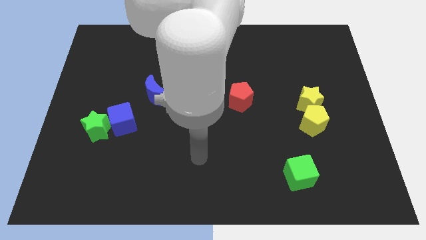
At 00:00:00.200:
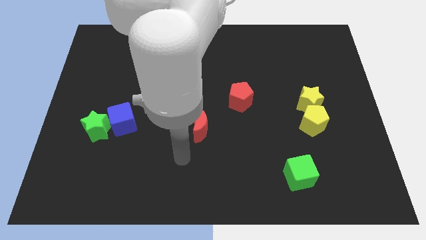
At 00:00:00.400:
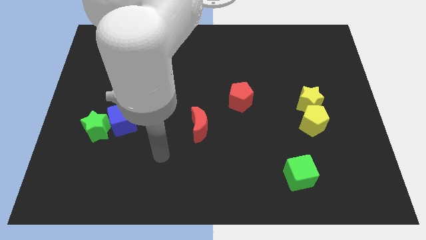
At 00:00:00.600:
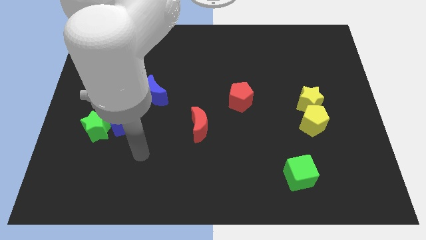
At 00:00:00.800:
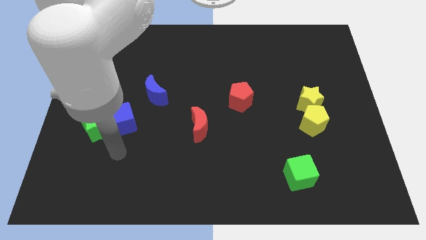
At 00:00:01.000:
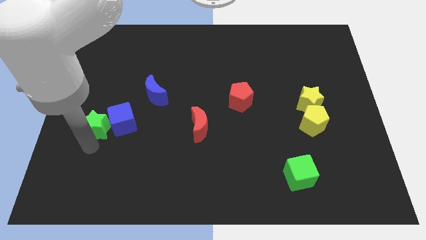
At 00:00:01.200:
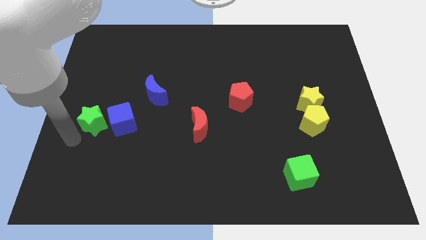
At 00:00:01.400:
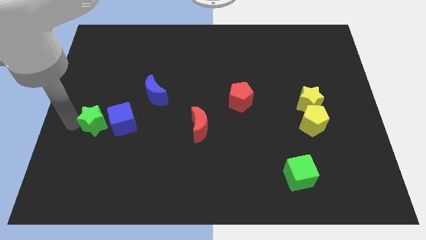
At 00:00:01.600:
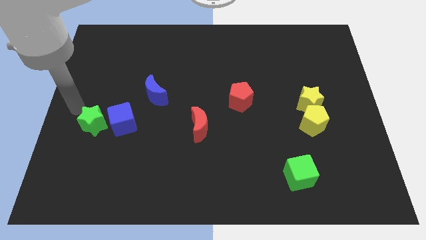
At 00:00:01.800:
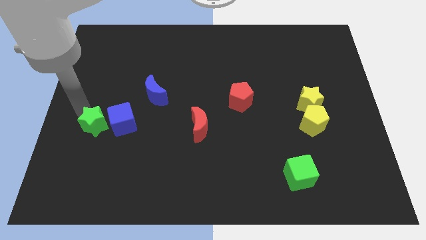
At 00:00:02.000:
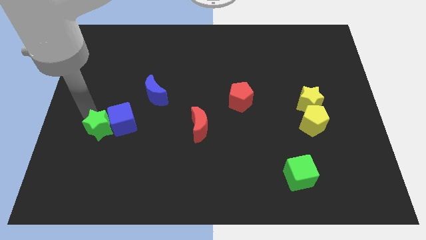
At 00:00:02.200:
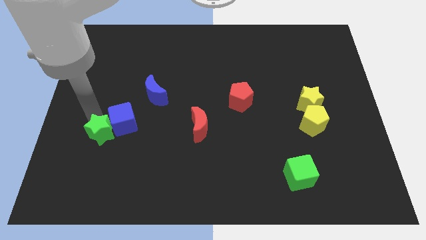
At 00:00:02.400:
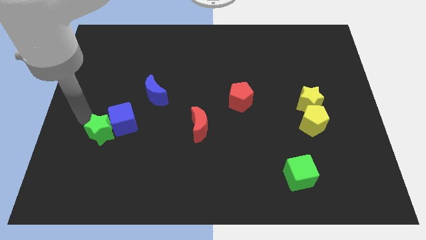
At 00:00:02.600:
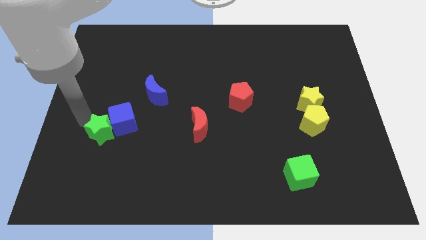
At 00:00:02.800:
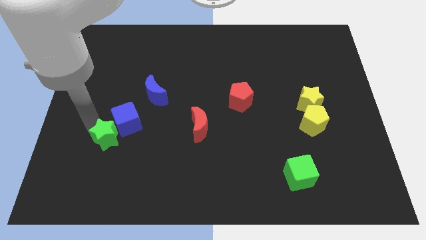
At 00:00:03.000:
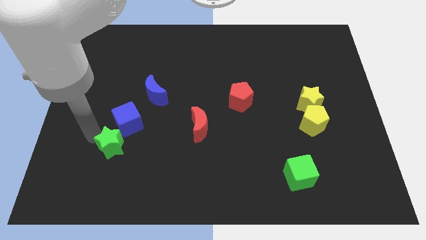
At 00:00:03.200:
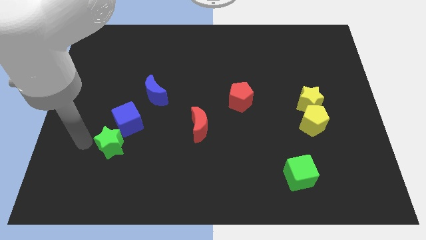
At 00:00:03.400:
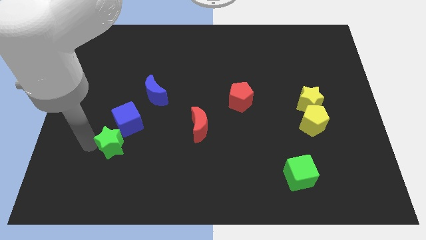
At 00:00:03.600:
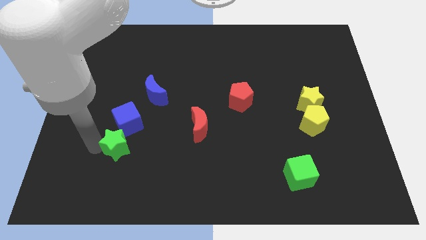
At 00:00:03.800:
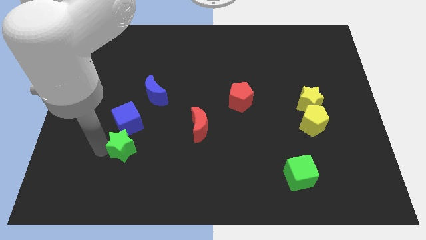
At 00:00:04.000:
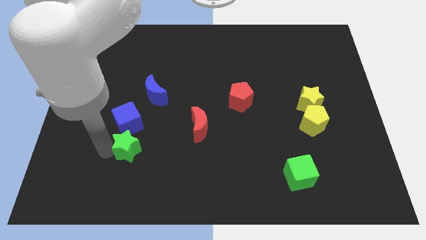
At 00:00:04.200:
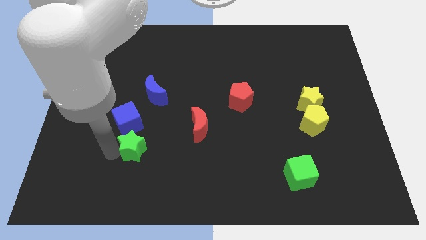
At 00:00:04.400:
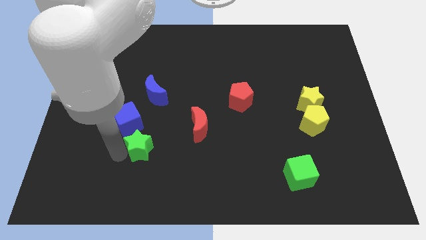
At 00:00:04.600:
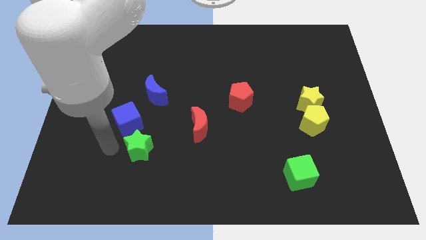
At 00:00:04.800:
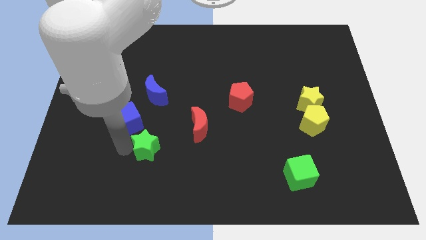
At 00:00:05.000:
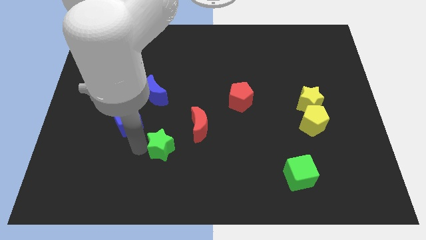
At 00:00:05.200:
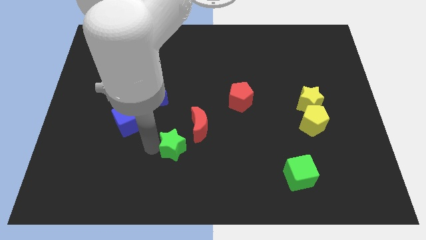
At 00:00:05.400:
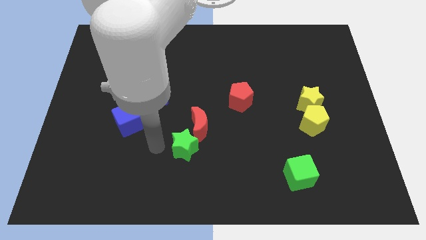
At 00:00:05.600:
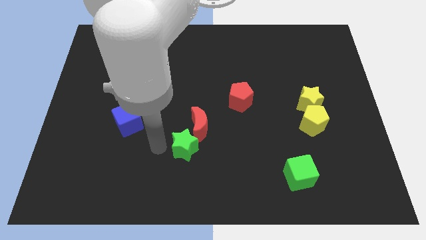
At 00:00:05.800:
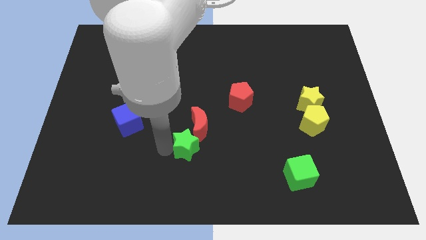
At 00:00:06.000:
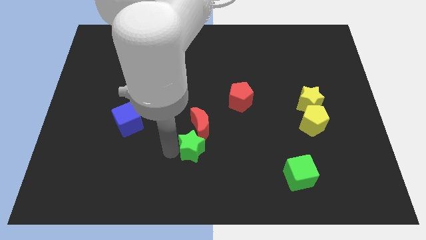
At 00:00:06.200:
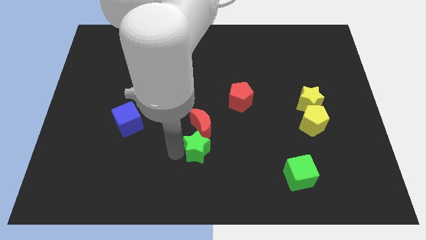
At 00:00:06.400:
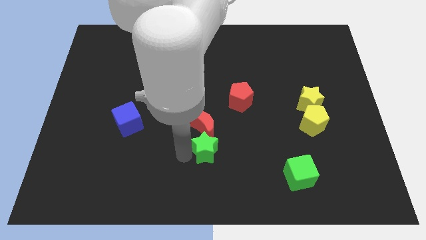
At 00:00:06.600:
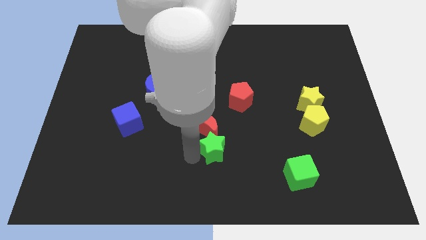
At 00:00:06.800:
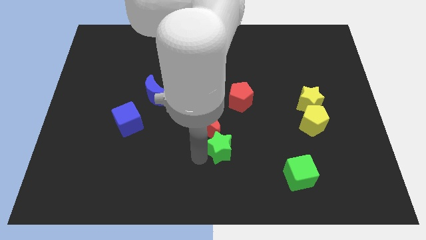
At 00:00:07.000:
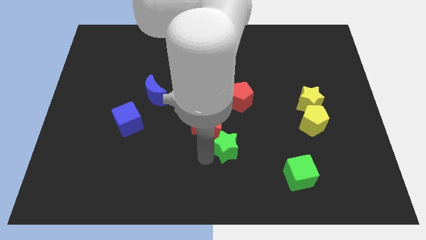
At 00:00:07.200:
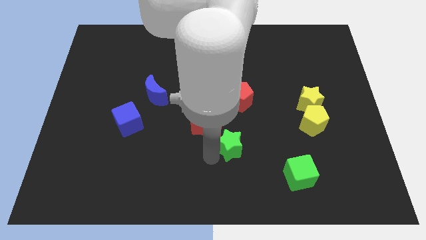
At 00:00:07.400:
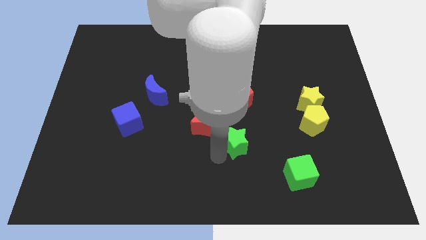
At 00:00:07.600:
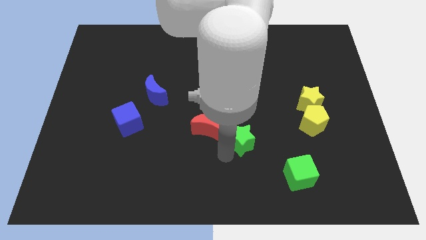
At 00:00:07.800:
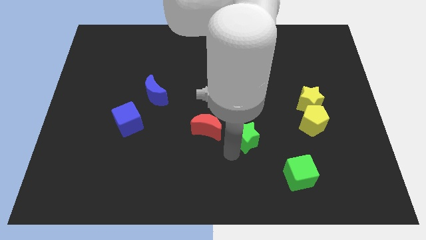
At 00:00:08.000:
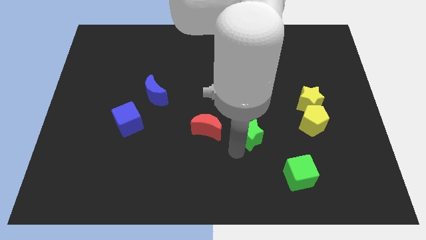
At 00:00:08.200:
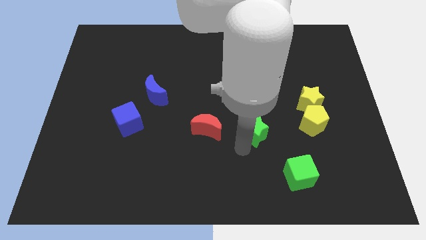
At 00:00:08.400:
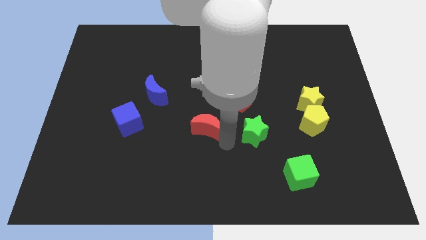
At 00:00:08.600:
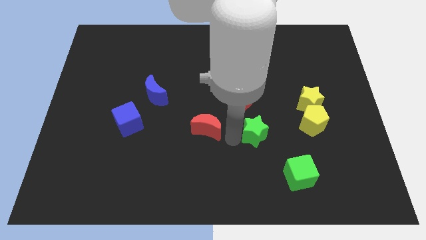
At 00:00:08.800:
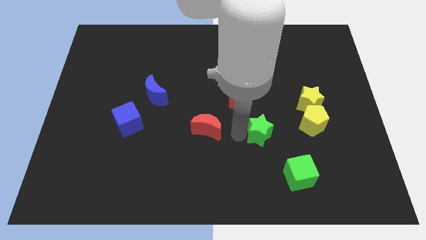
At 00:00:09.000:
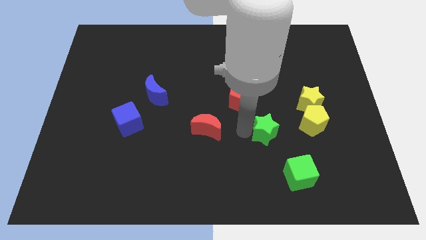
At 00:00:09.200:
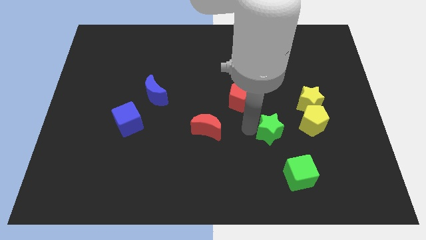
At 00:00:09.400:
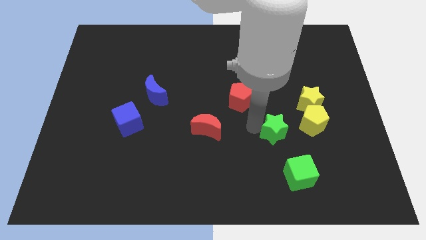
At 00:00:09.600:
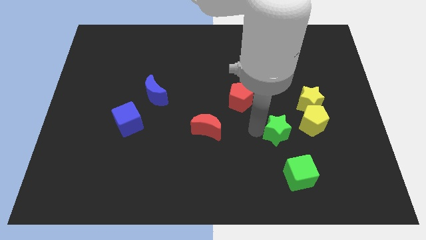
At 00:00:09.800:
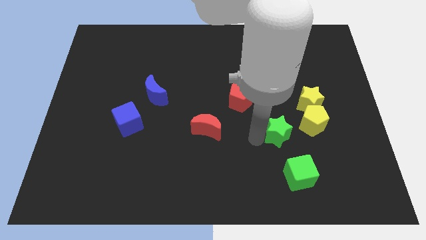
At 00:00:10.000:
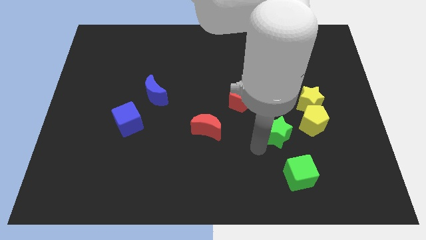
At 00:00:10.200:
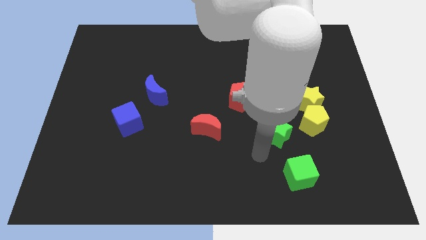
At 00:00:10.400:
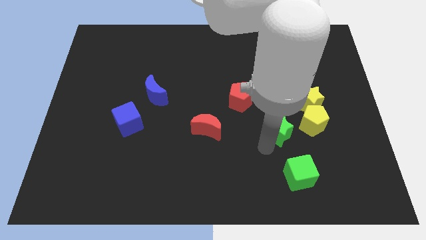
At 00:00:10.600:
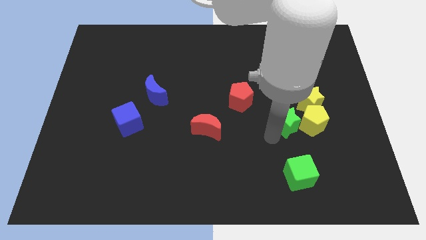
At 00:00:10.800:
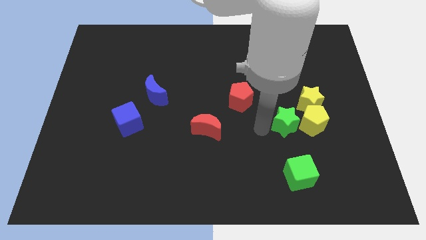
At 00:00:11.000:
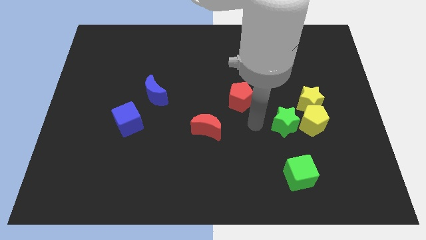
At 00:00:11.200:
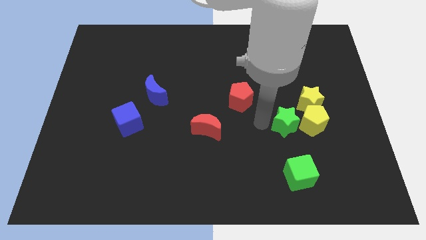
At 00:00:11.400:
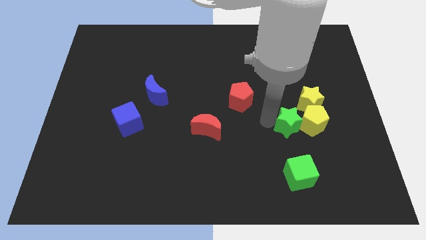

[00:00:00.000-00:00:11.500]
put the green star close to the yellow pentagon

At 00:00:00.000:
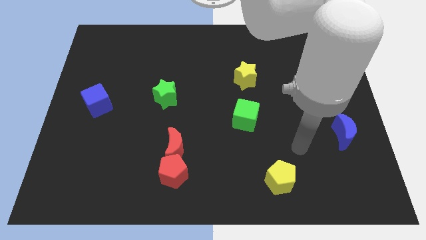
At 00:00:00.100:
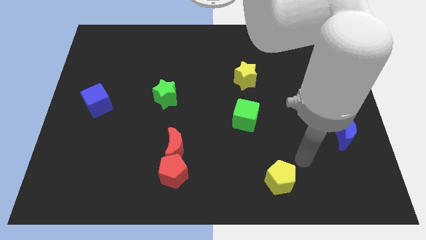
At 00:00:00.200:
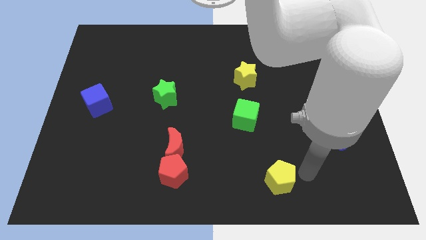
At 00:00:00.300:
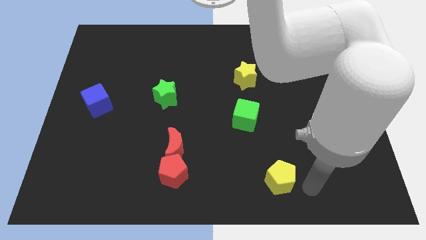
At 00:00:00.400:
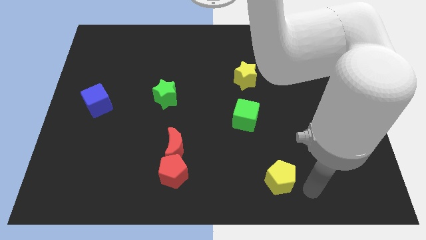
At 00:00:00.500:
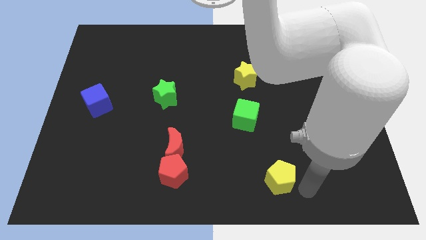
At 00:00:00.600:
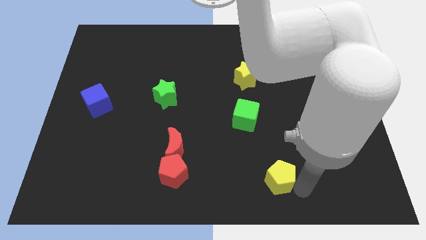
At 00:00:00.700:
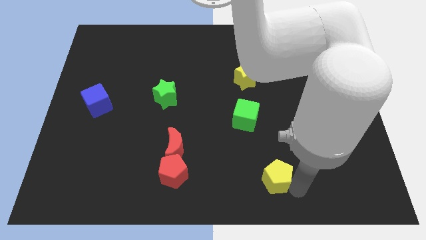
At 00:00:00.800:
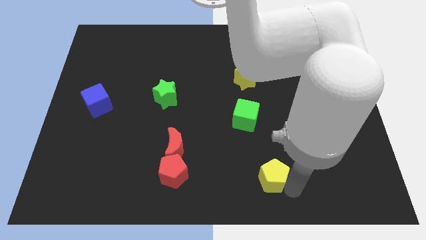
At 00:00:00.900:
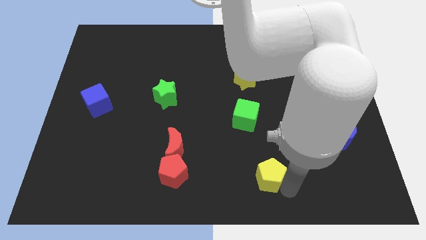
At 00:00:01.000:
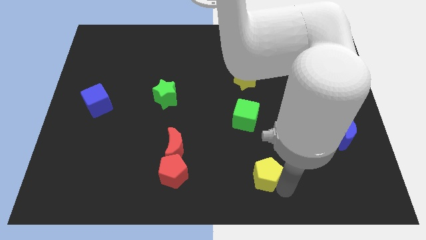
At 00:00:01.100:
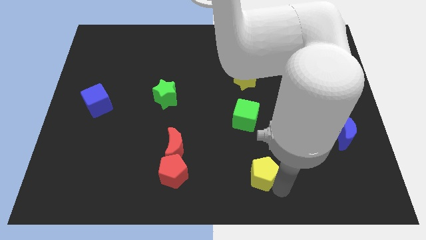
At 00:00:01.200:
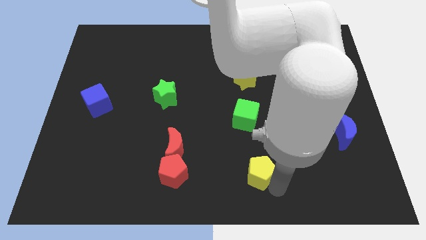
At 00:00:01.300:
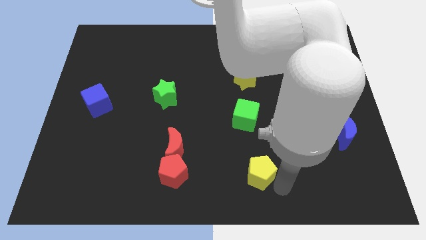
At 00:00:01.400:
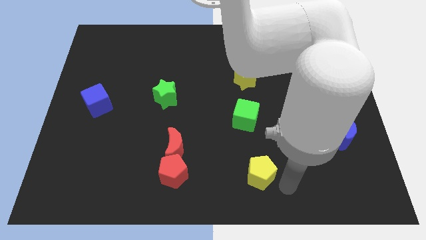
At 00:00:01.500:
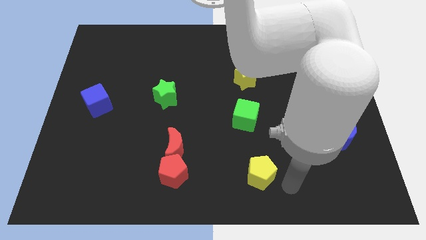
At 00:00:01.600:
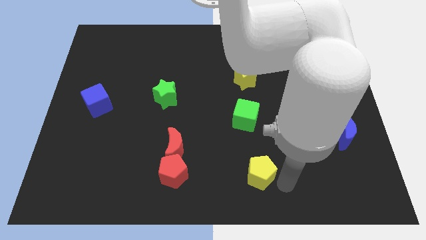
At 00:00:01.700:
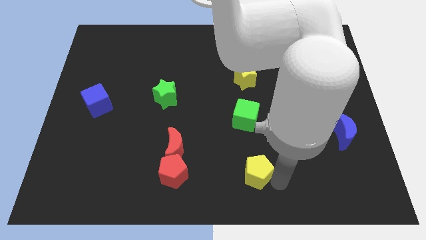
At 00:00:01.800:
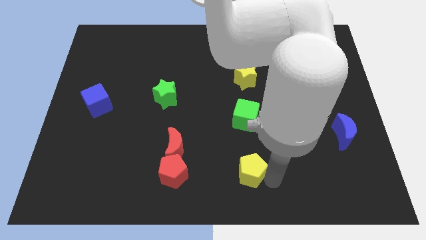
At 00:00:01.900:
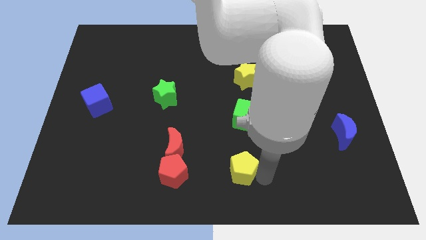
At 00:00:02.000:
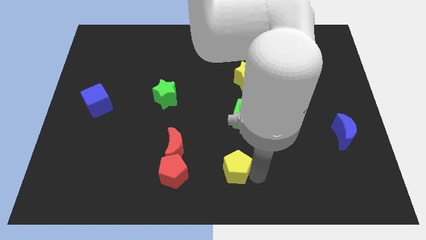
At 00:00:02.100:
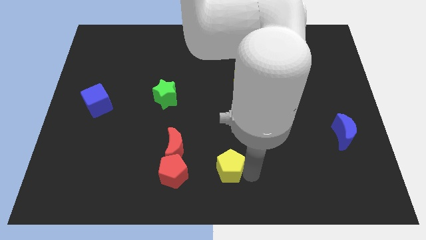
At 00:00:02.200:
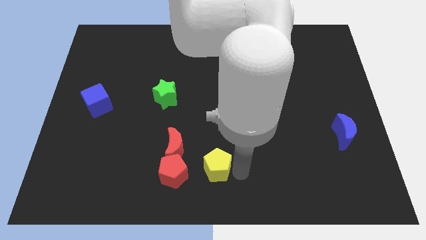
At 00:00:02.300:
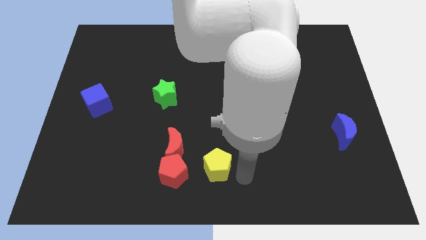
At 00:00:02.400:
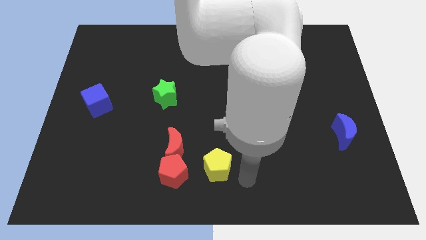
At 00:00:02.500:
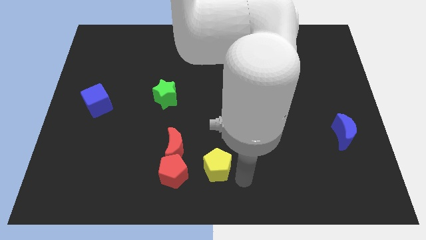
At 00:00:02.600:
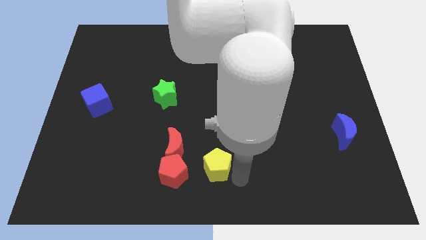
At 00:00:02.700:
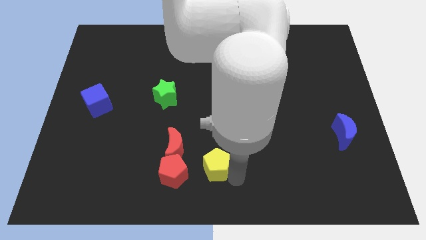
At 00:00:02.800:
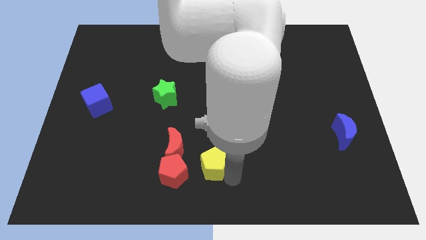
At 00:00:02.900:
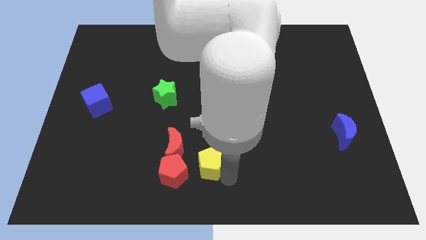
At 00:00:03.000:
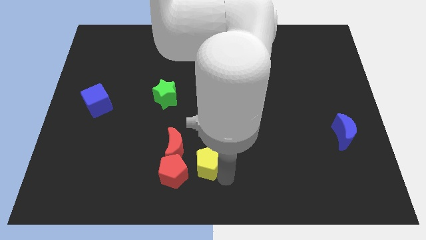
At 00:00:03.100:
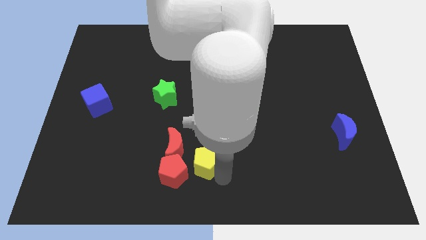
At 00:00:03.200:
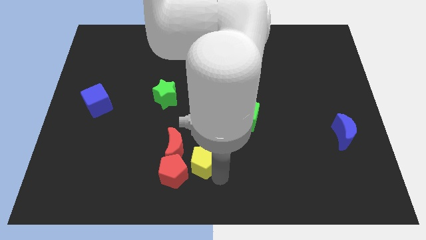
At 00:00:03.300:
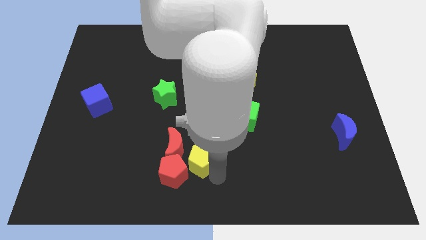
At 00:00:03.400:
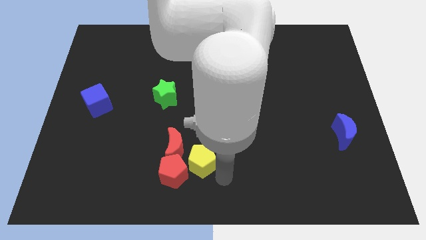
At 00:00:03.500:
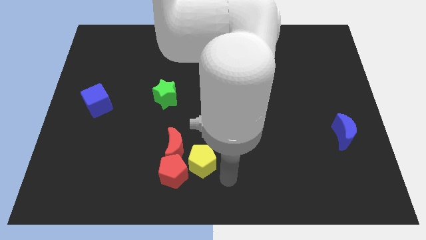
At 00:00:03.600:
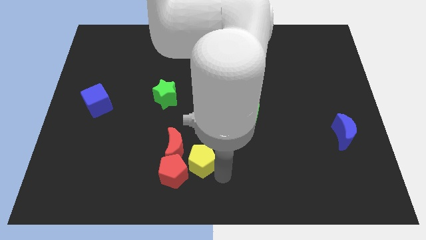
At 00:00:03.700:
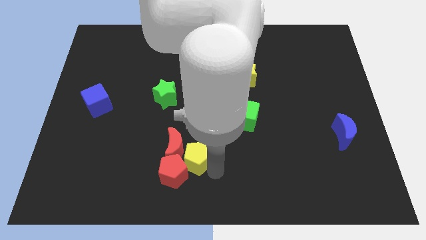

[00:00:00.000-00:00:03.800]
push the yellow pentagon close to the red moon
